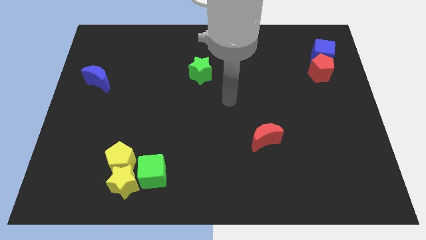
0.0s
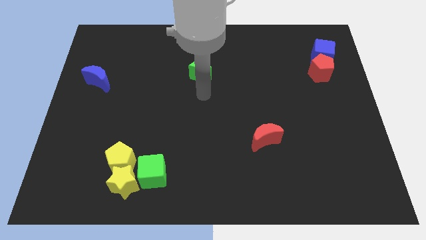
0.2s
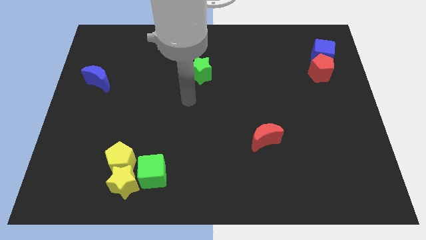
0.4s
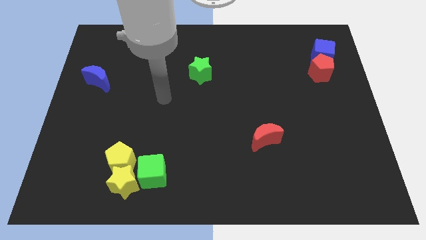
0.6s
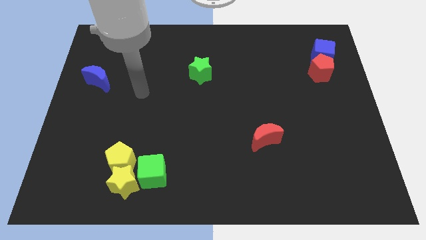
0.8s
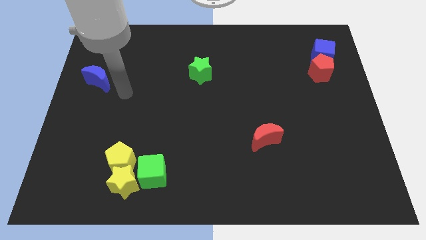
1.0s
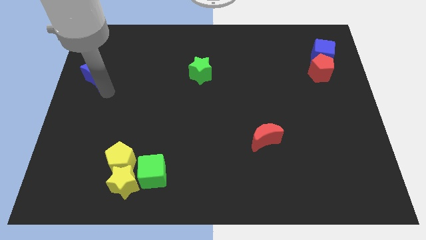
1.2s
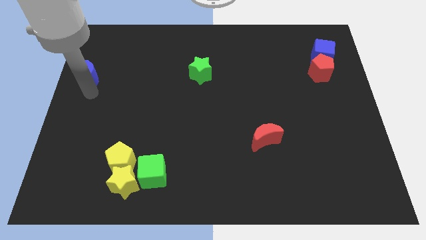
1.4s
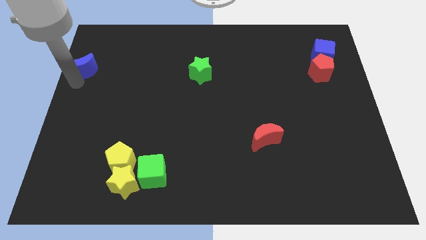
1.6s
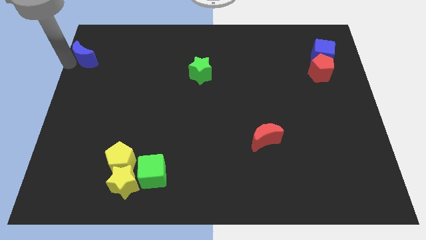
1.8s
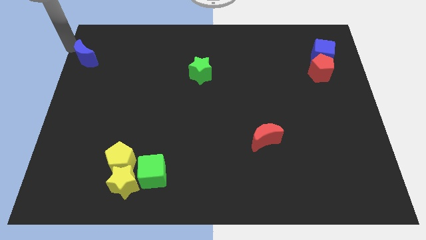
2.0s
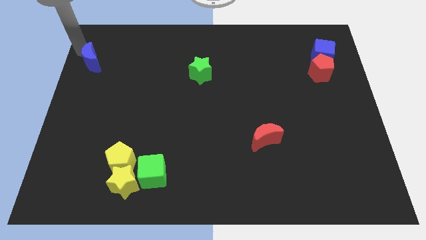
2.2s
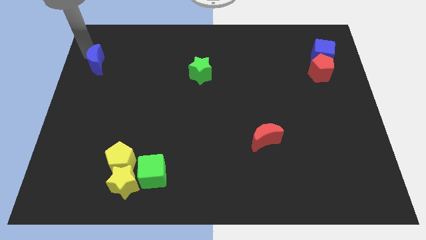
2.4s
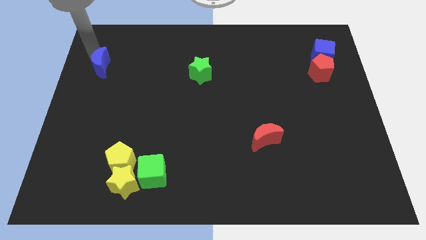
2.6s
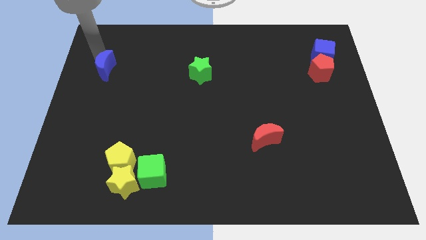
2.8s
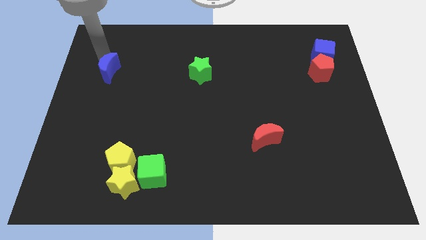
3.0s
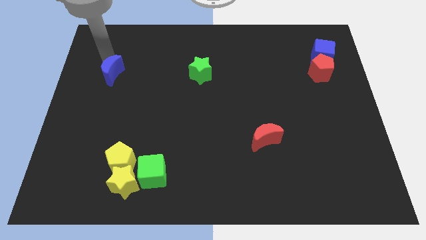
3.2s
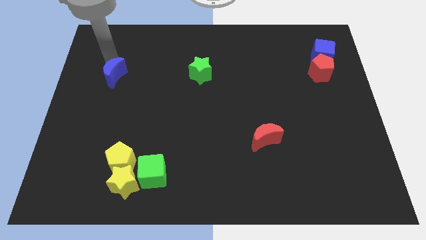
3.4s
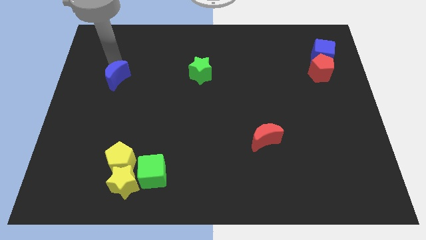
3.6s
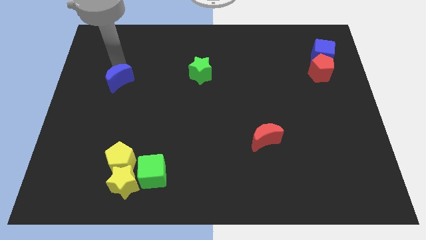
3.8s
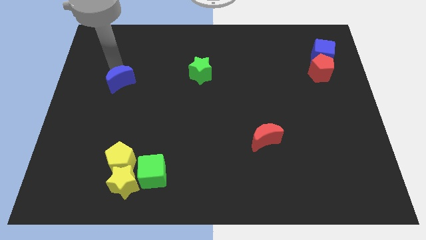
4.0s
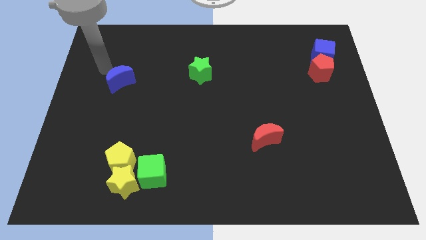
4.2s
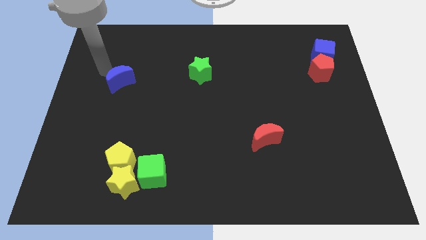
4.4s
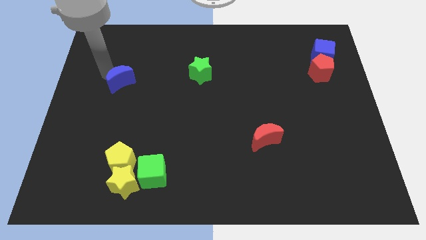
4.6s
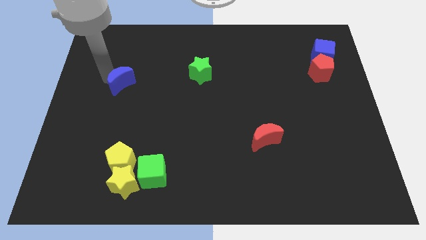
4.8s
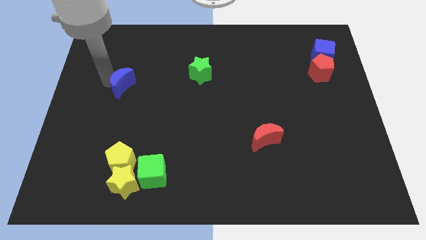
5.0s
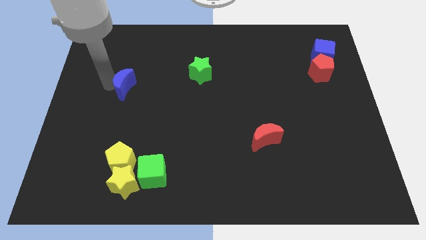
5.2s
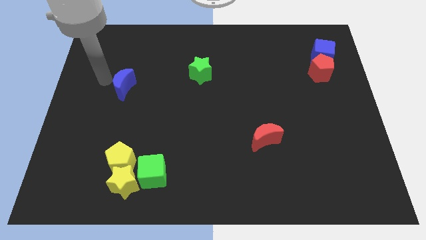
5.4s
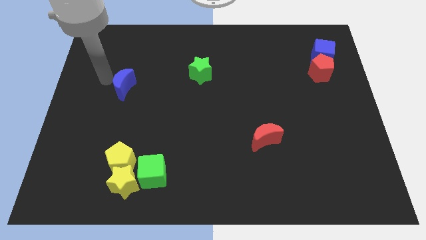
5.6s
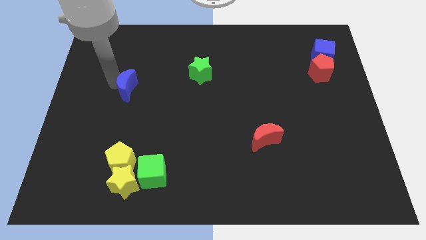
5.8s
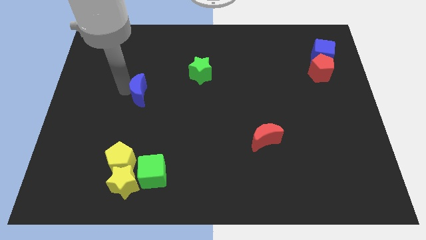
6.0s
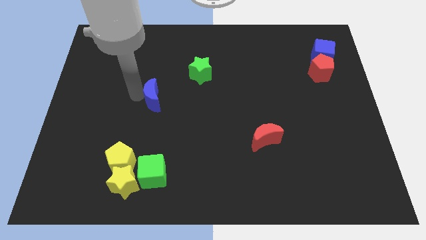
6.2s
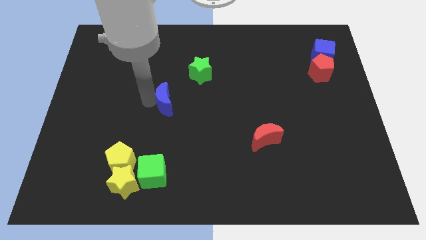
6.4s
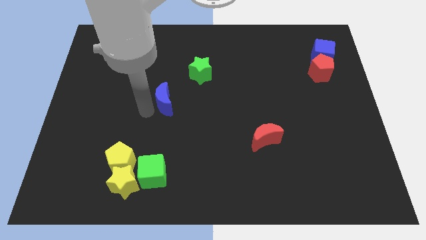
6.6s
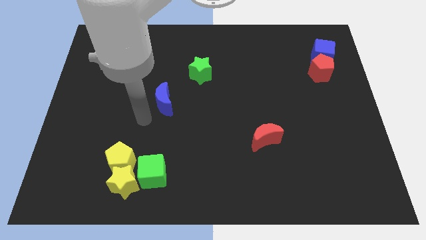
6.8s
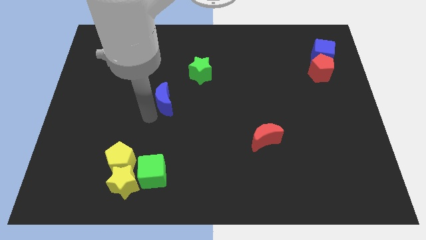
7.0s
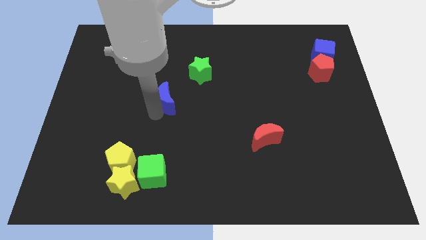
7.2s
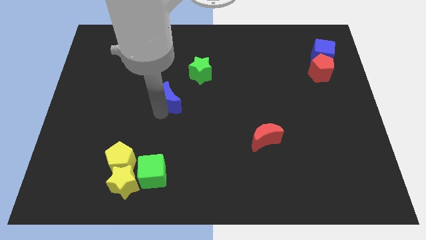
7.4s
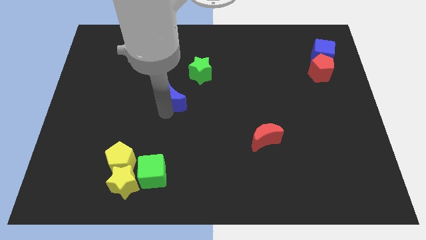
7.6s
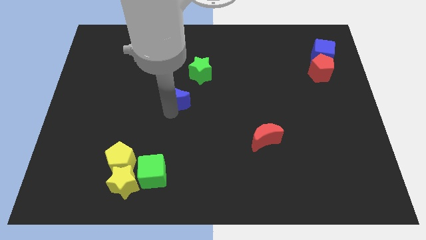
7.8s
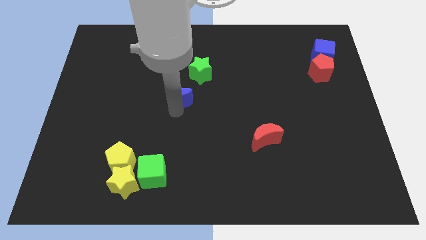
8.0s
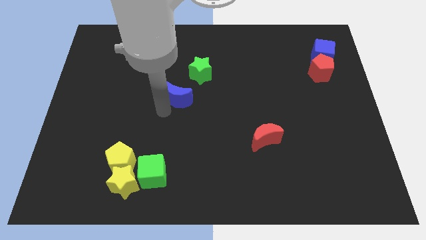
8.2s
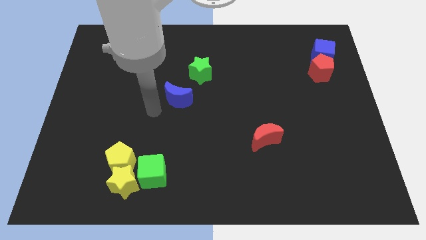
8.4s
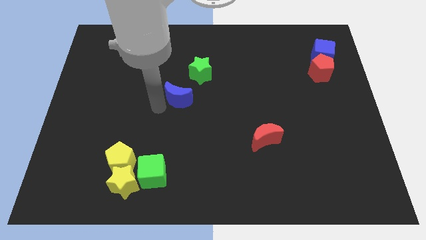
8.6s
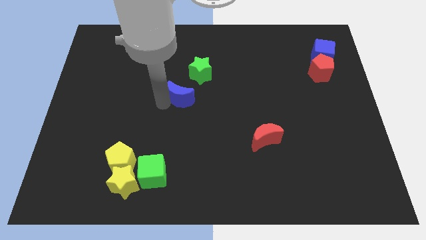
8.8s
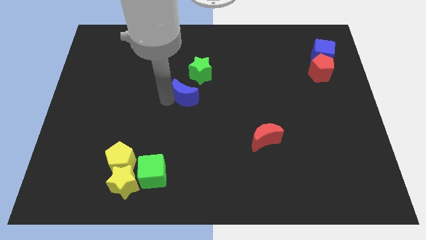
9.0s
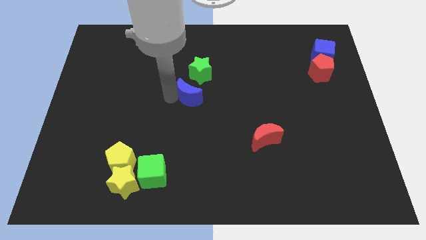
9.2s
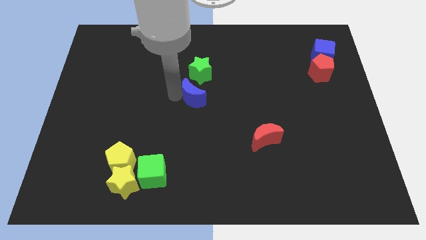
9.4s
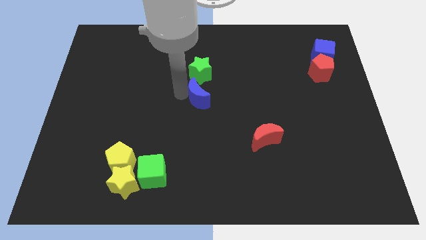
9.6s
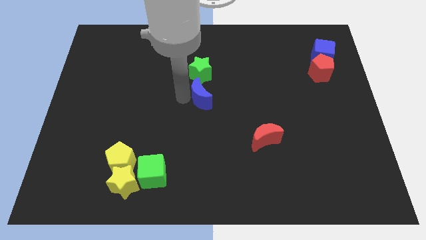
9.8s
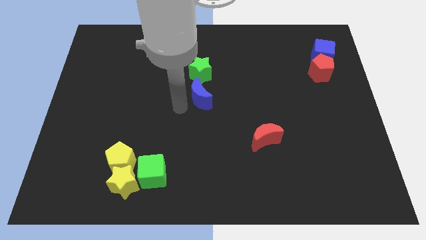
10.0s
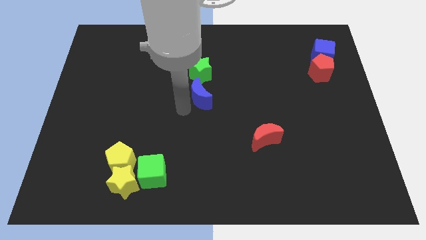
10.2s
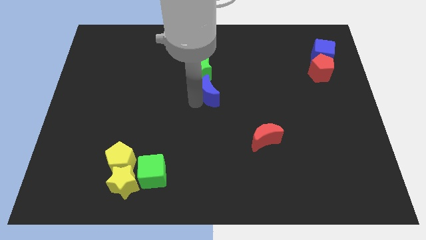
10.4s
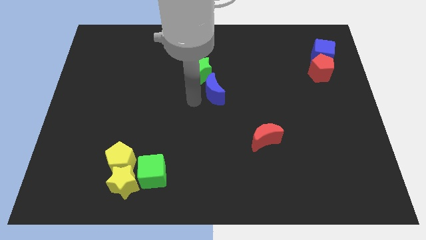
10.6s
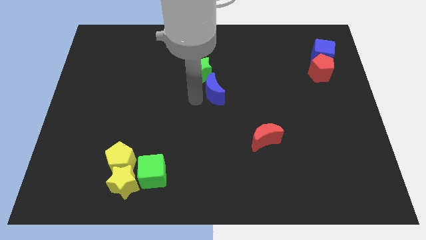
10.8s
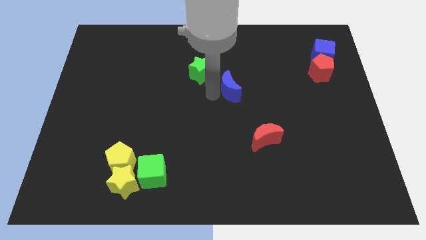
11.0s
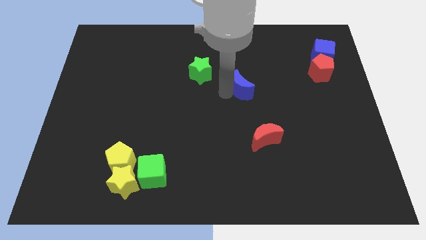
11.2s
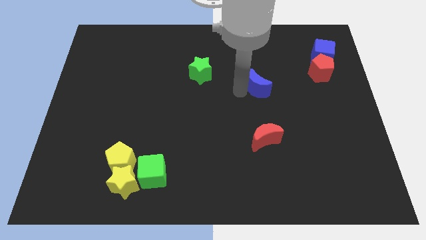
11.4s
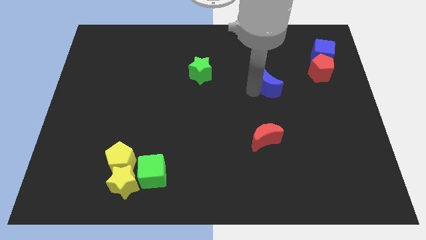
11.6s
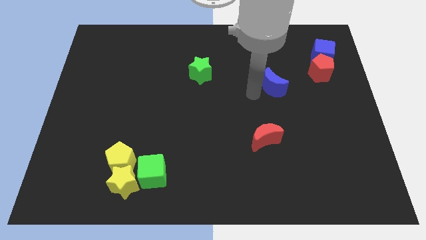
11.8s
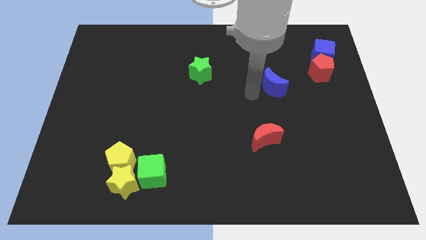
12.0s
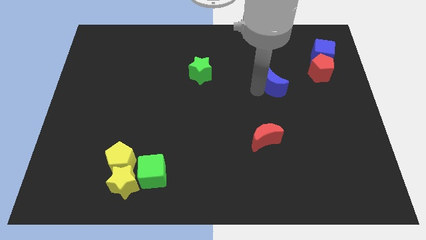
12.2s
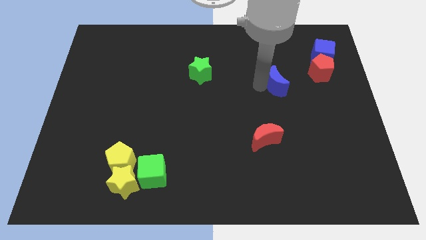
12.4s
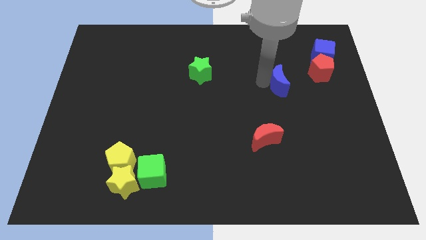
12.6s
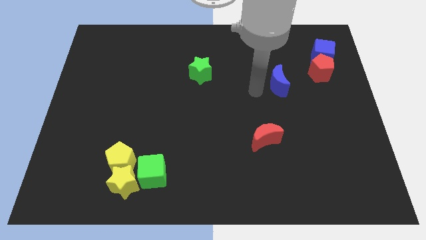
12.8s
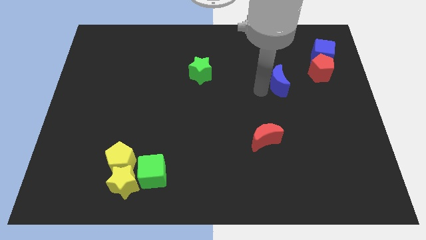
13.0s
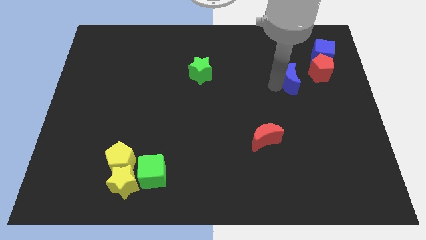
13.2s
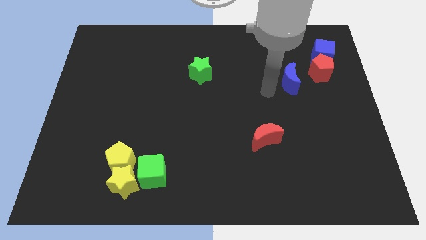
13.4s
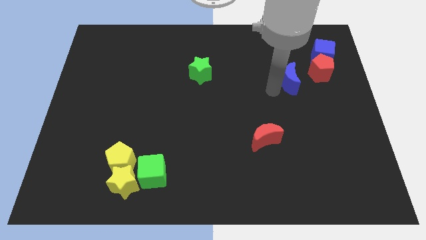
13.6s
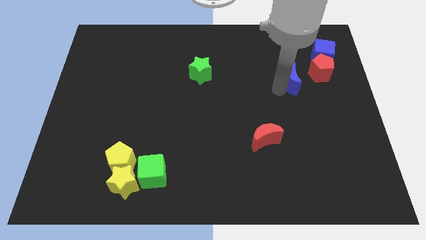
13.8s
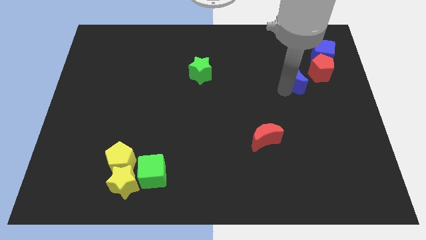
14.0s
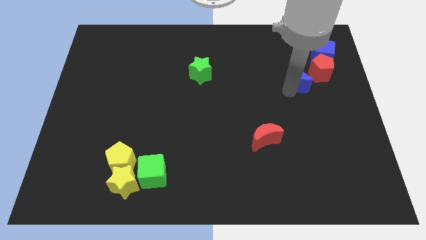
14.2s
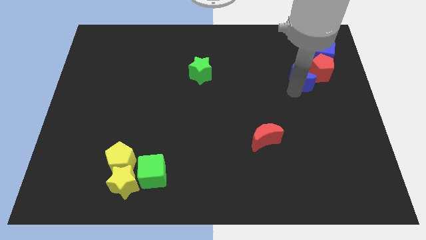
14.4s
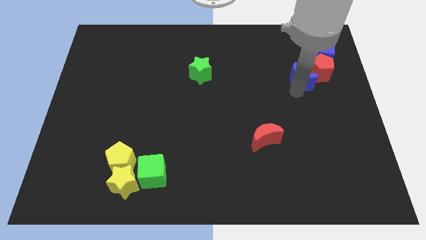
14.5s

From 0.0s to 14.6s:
put the blue moon towards the red pentagon
